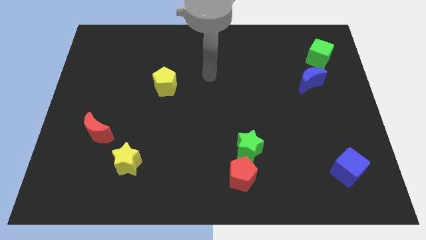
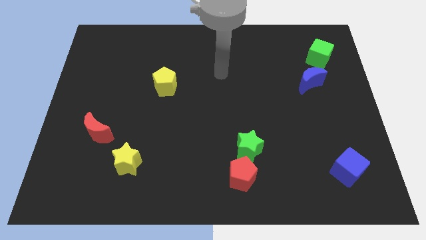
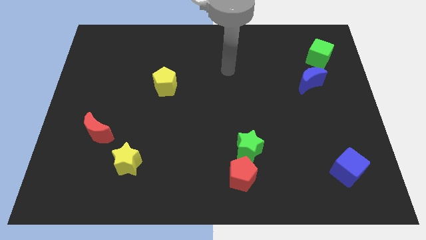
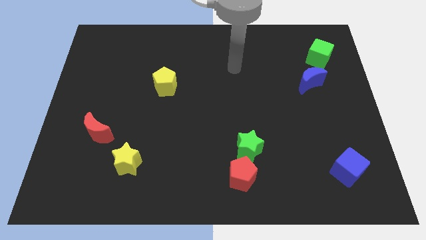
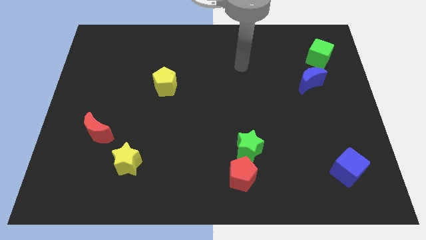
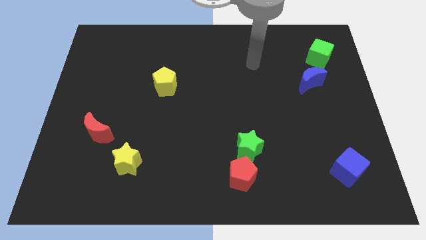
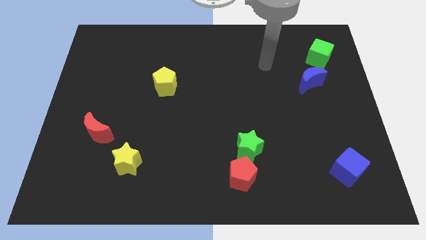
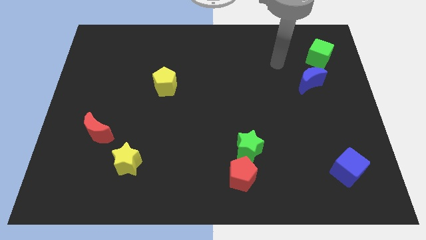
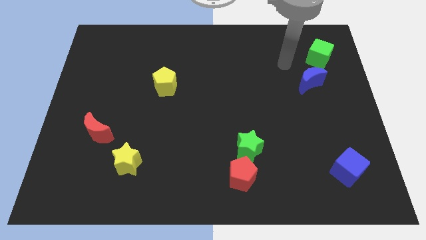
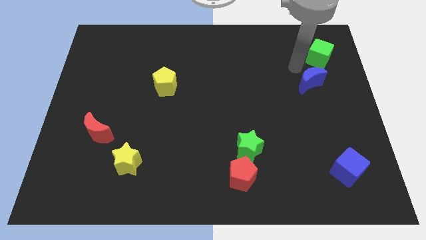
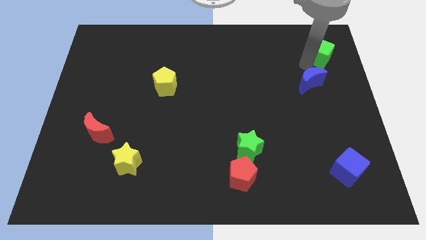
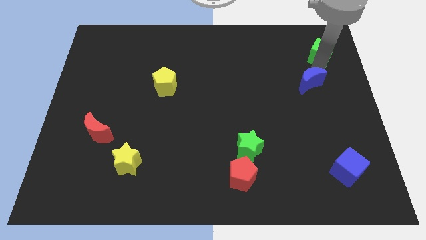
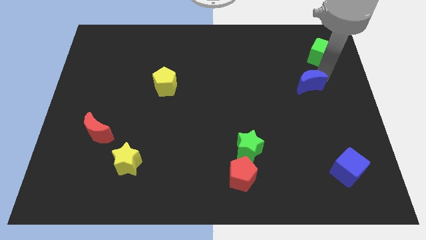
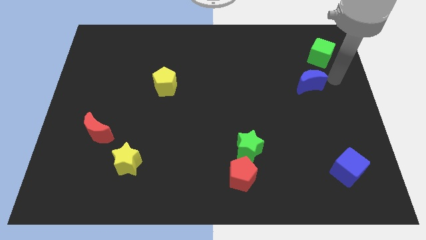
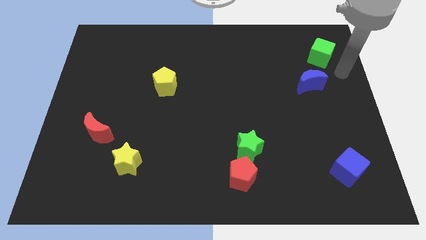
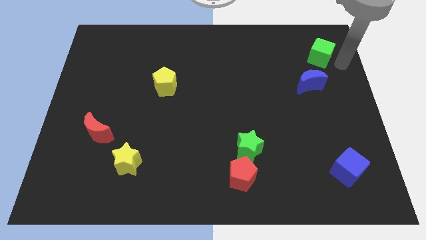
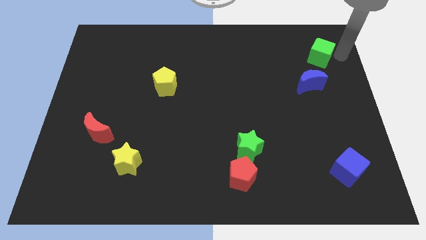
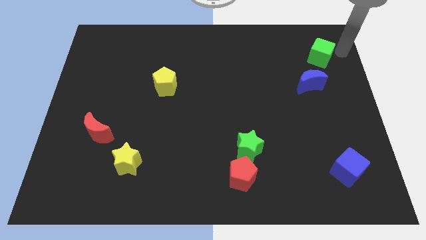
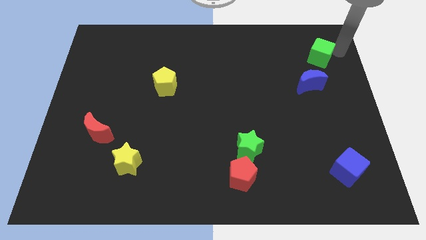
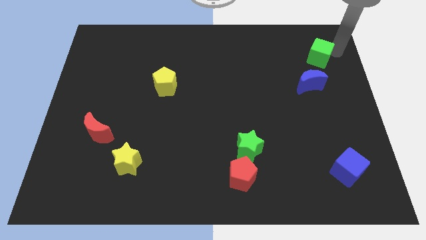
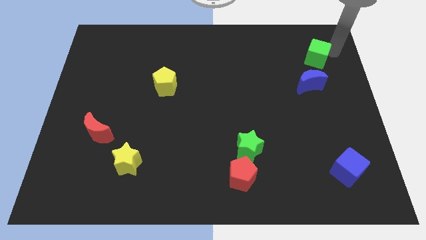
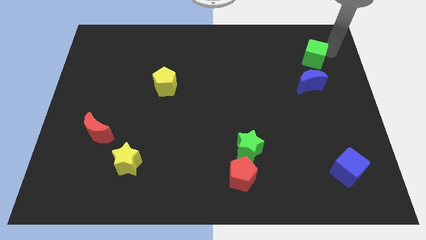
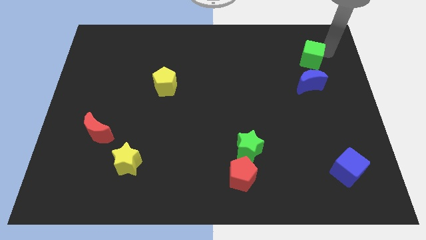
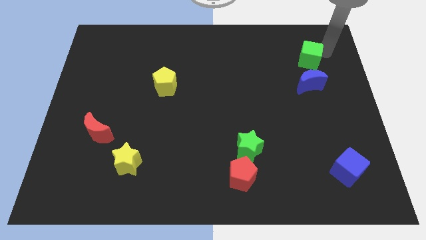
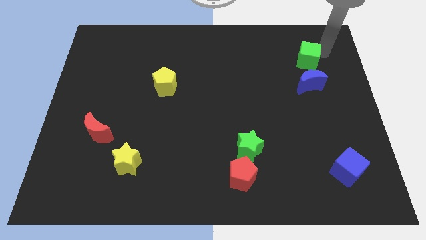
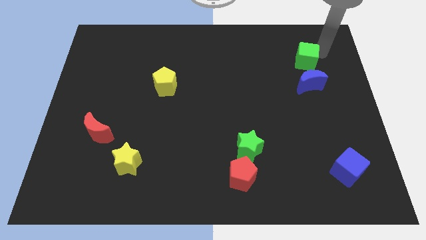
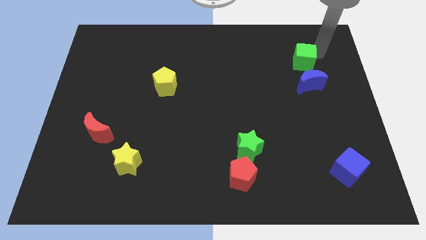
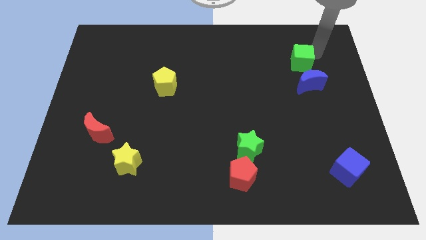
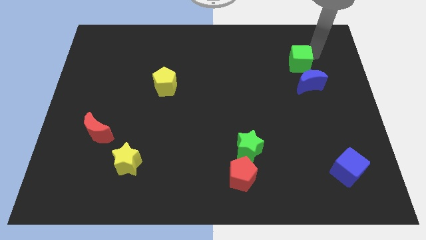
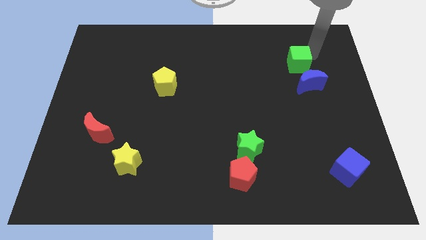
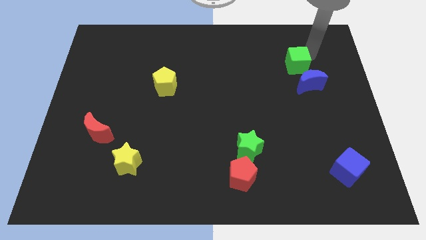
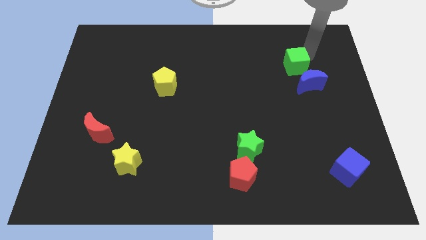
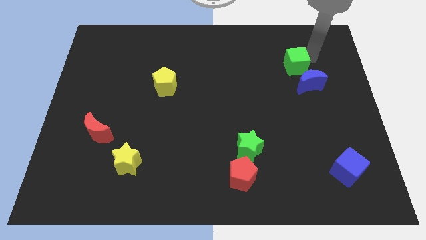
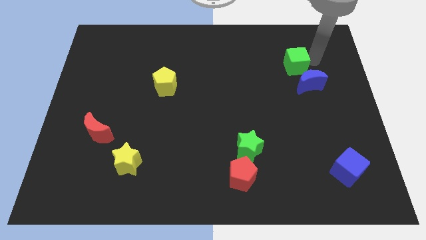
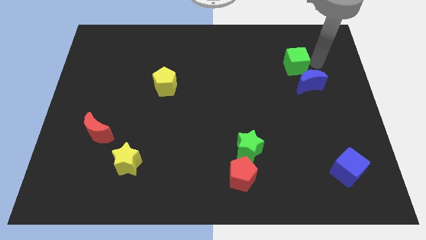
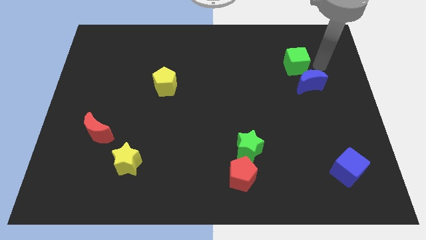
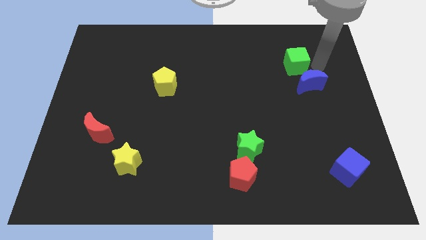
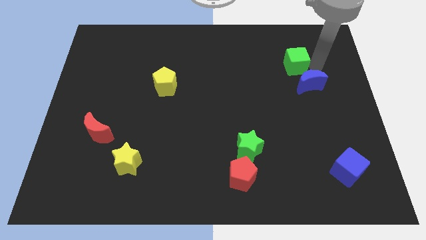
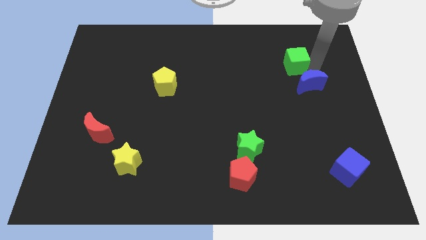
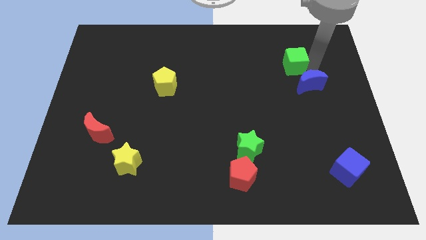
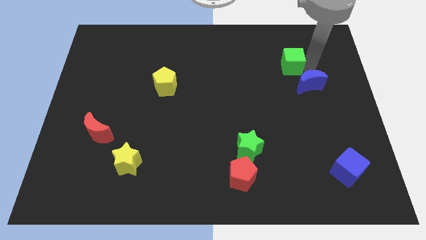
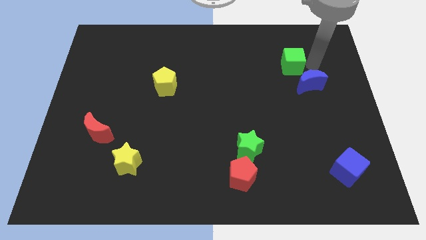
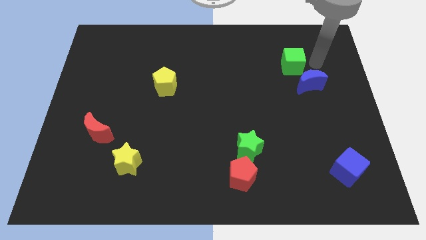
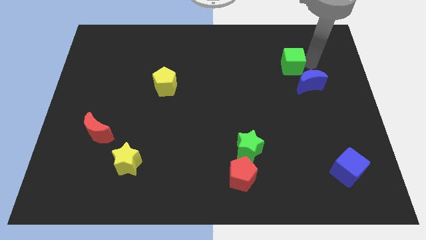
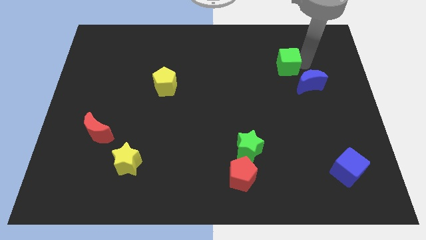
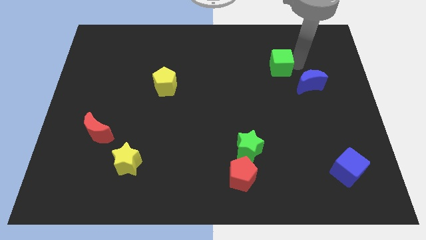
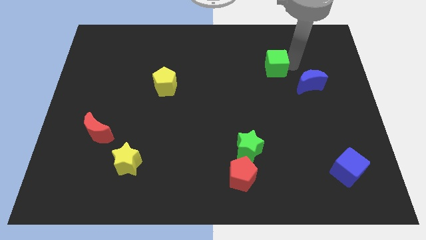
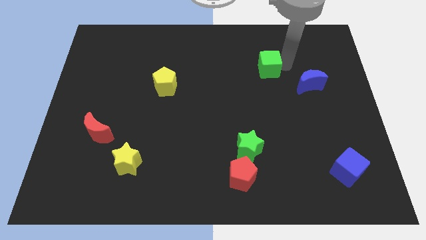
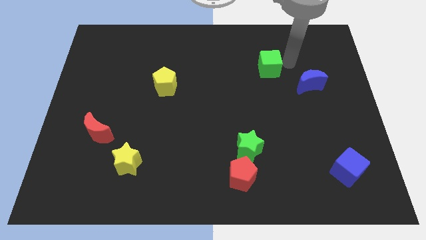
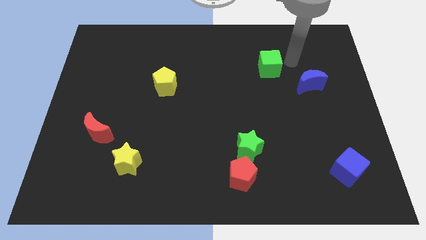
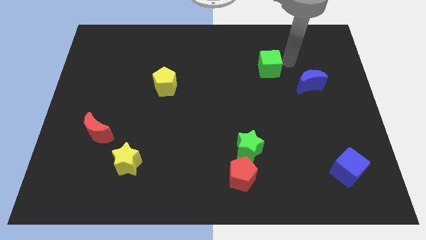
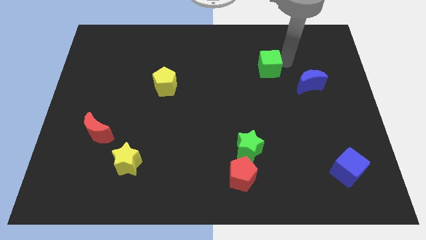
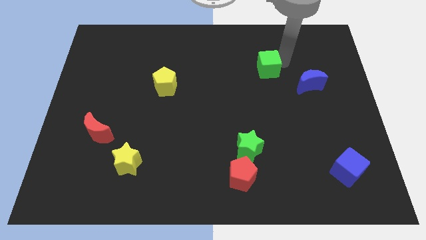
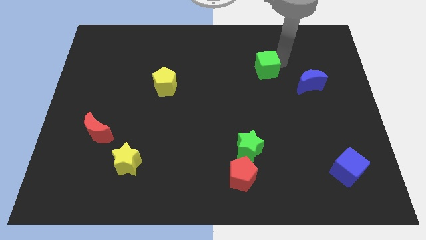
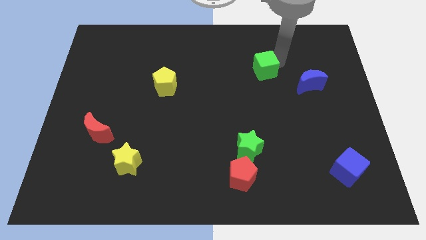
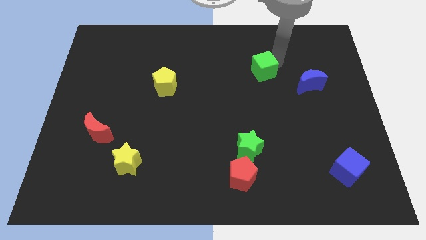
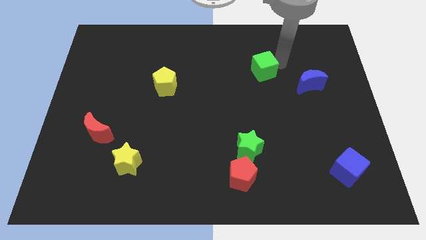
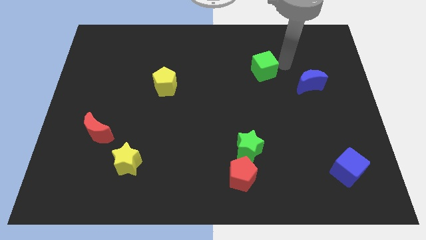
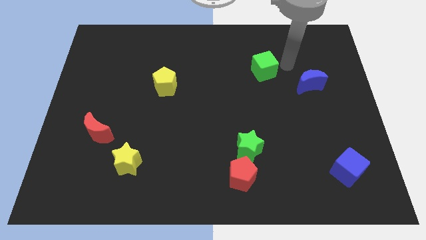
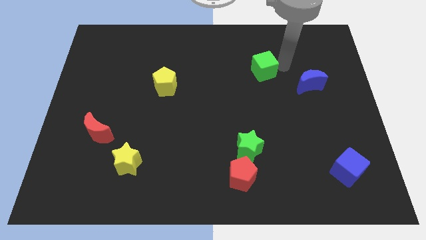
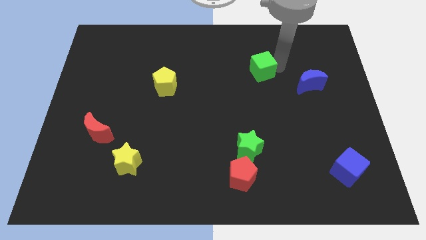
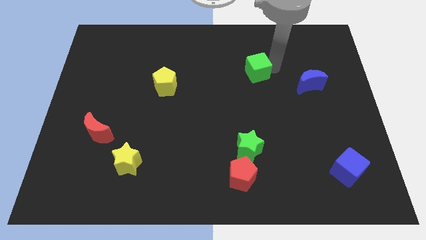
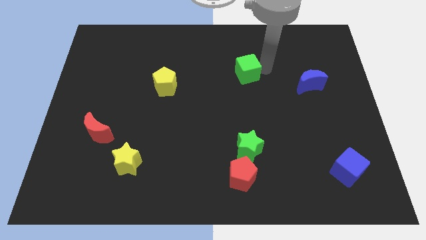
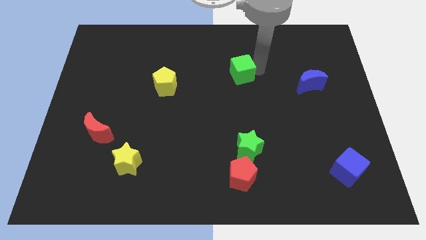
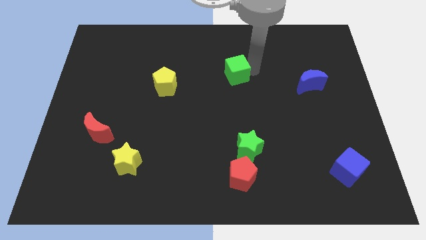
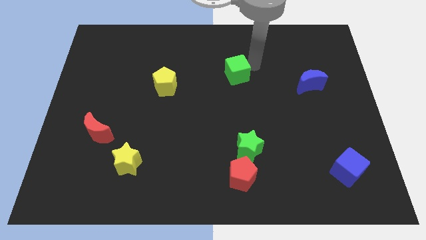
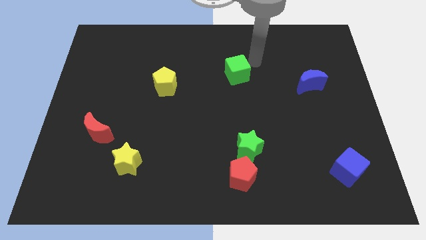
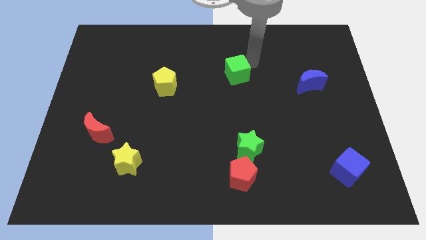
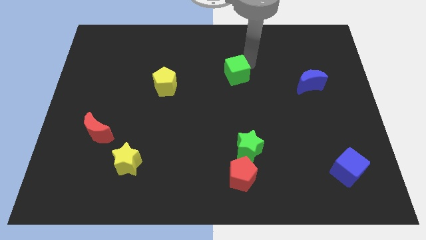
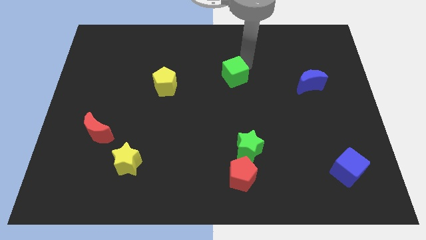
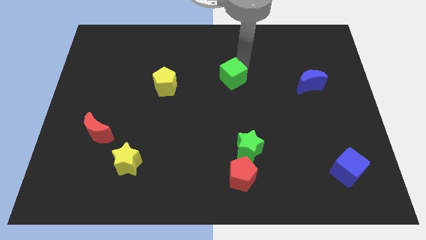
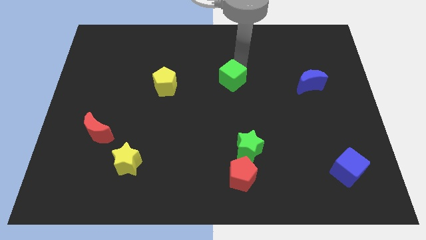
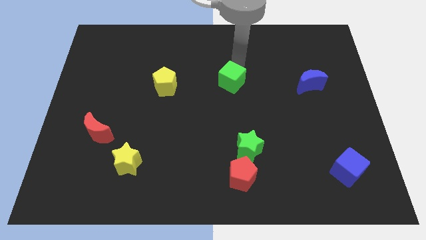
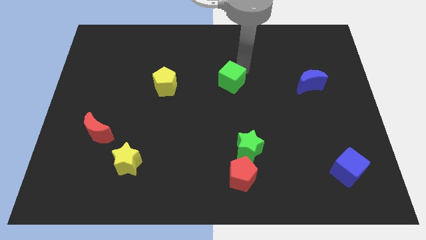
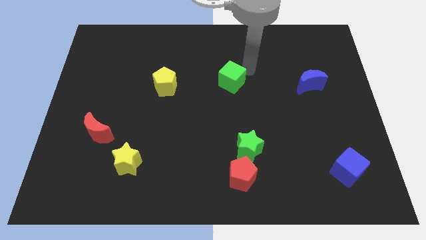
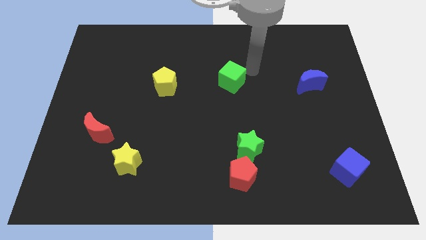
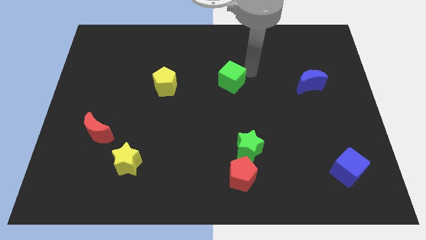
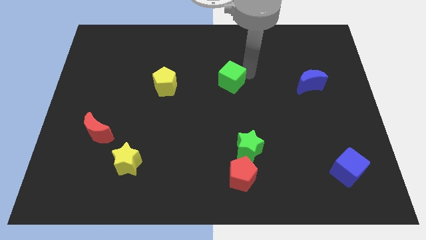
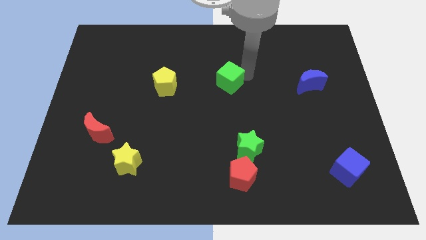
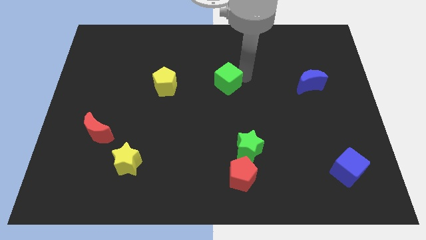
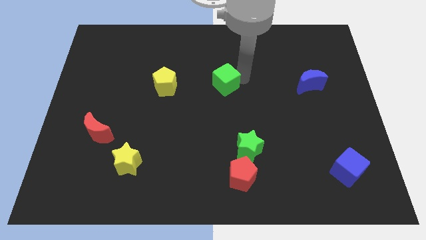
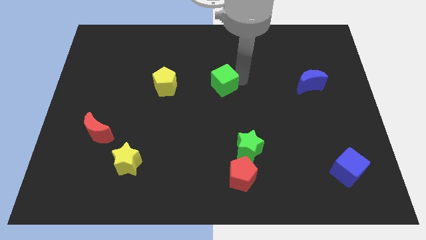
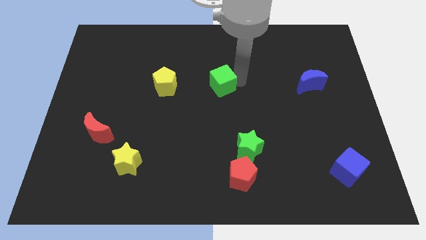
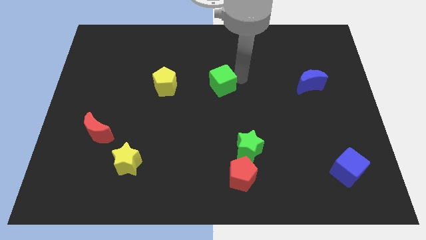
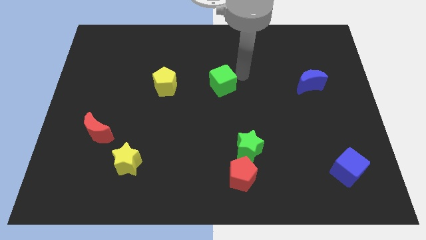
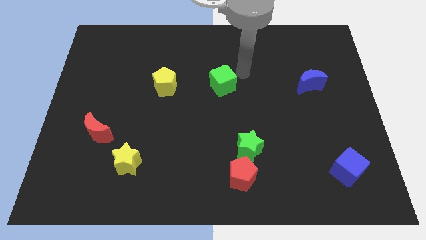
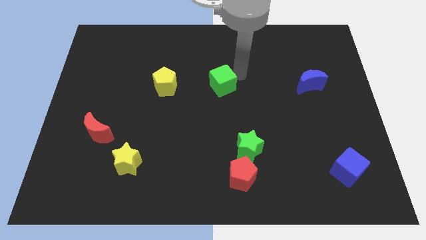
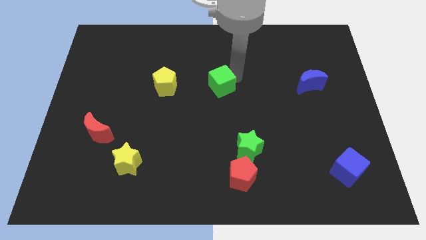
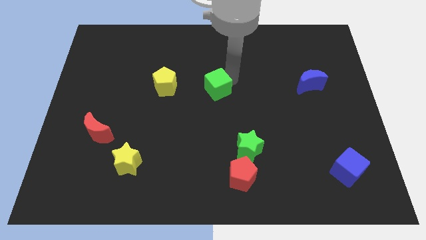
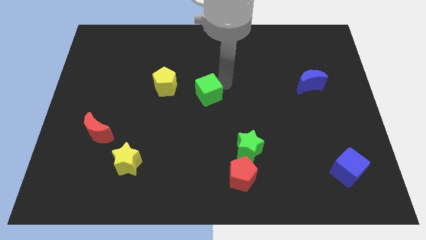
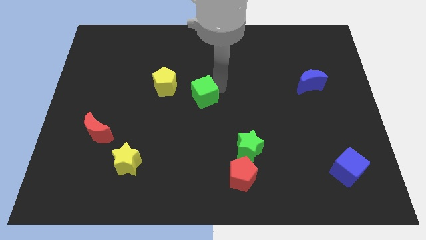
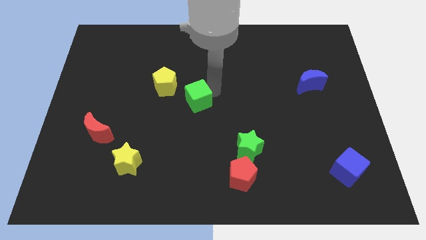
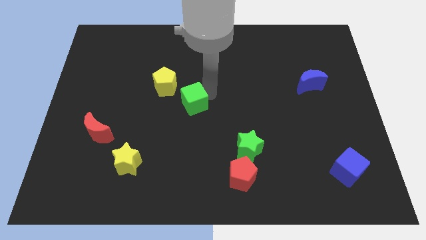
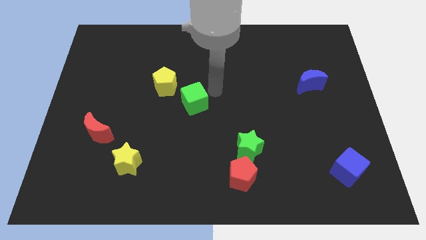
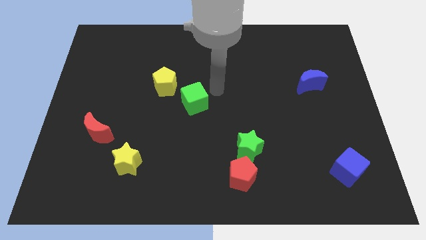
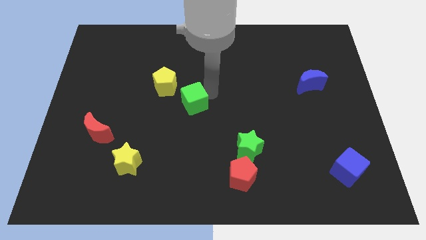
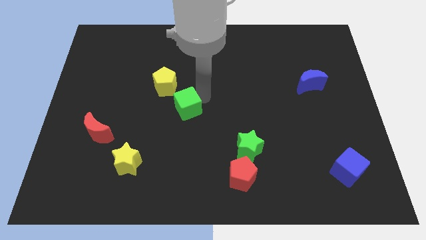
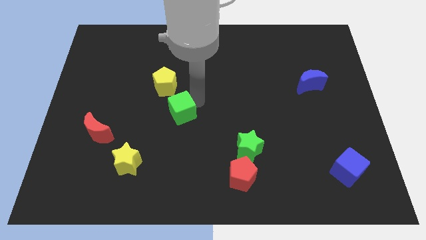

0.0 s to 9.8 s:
slide the green cube below the yellow pentagon
